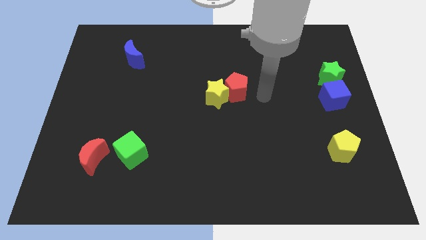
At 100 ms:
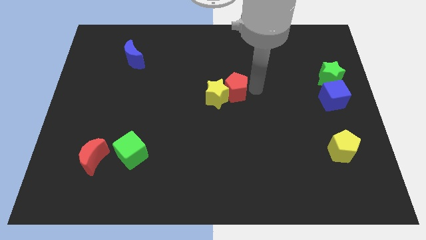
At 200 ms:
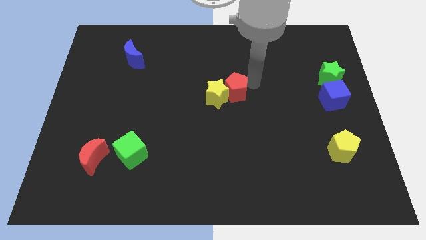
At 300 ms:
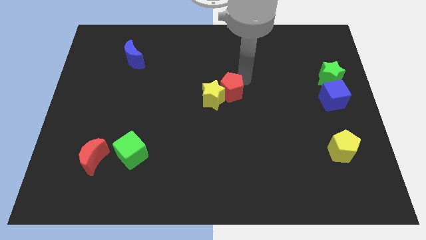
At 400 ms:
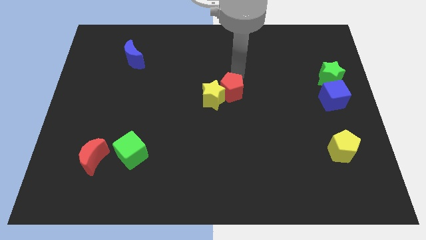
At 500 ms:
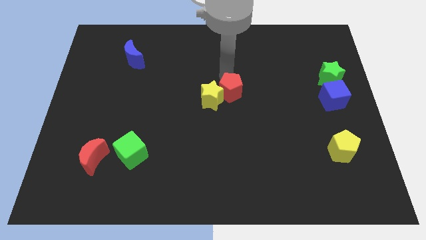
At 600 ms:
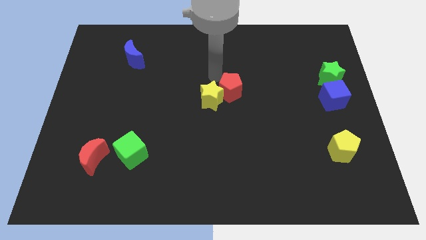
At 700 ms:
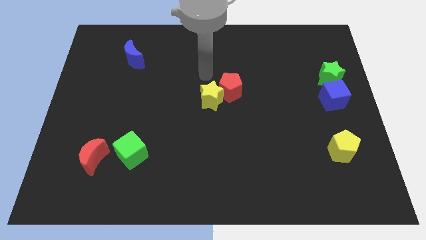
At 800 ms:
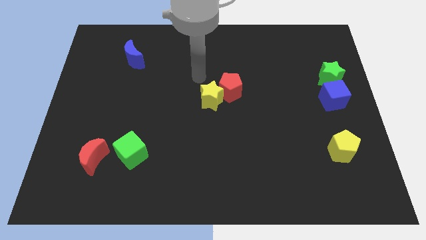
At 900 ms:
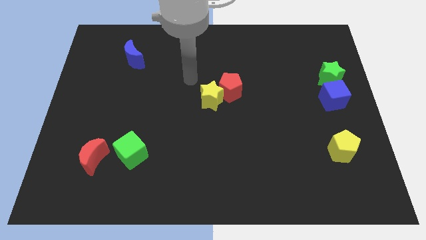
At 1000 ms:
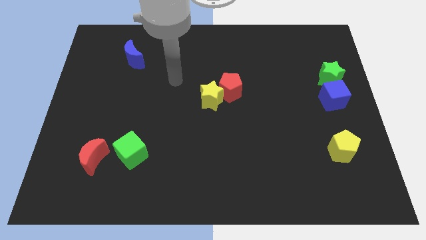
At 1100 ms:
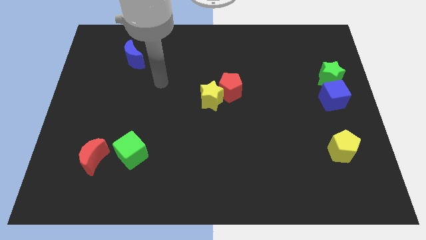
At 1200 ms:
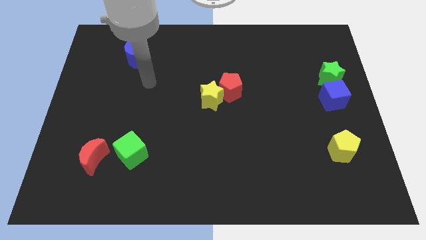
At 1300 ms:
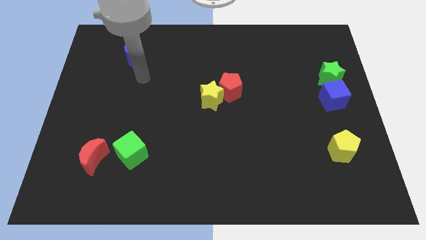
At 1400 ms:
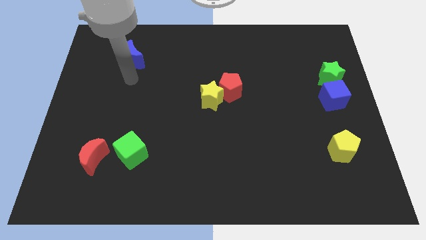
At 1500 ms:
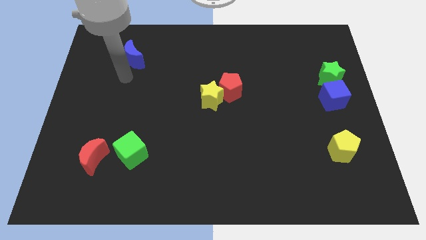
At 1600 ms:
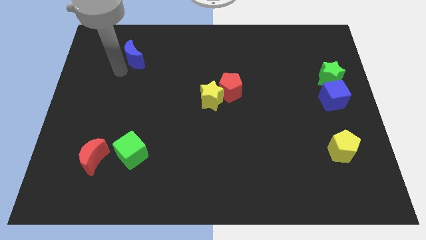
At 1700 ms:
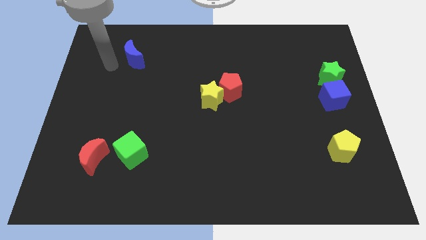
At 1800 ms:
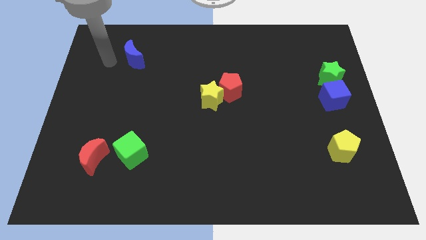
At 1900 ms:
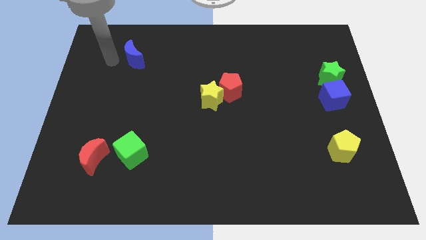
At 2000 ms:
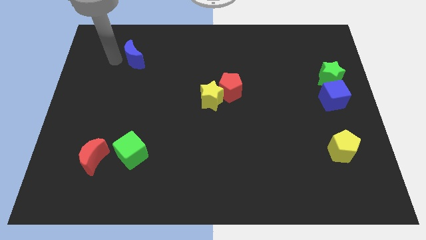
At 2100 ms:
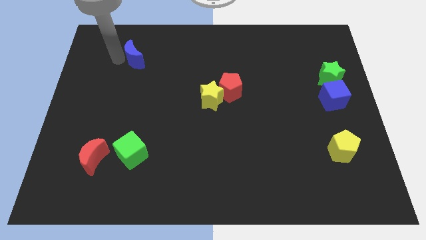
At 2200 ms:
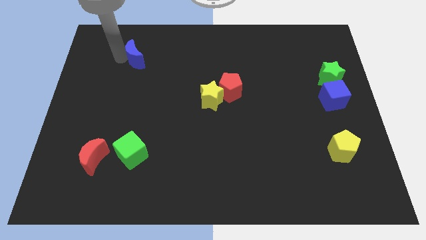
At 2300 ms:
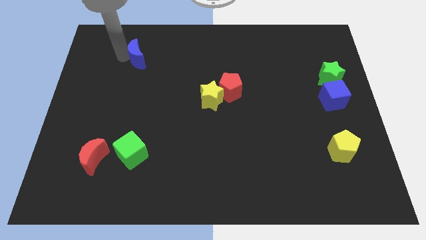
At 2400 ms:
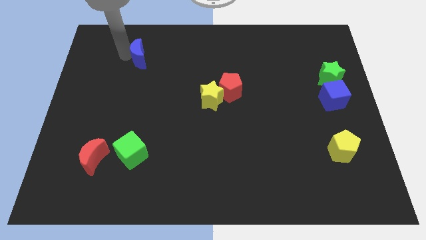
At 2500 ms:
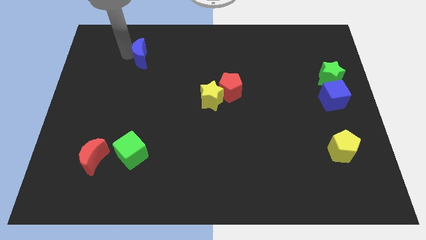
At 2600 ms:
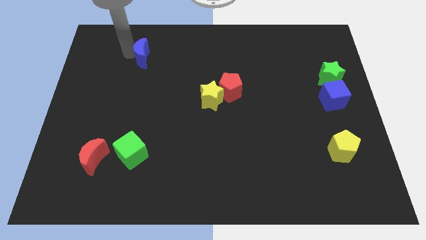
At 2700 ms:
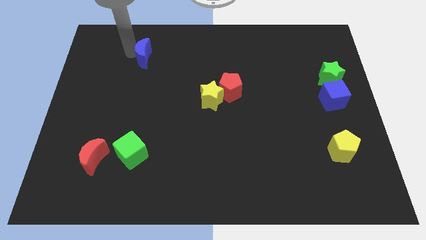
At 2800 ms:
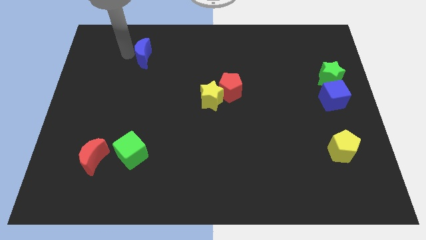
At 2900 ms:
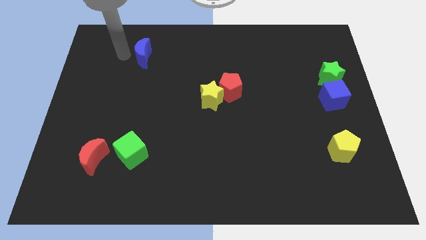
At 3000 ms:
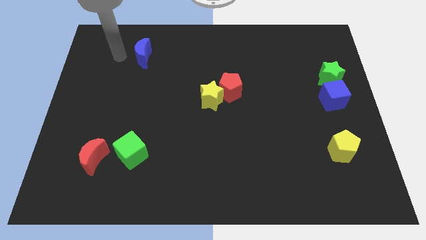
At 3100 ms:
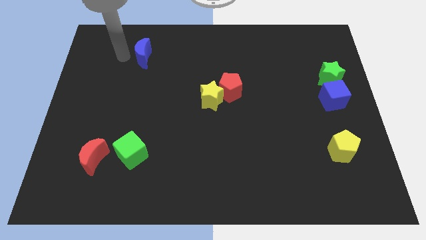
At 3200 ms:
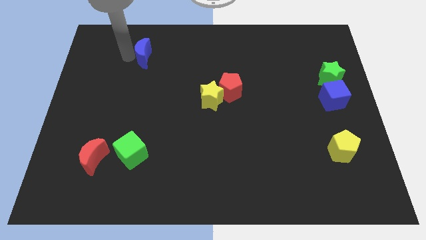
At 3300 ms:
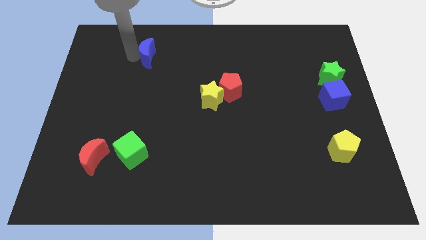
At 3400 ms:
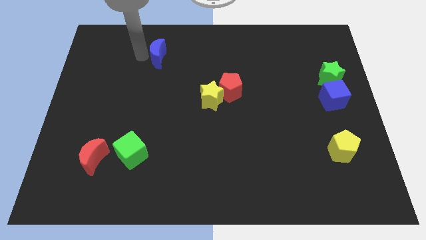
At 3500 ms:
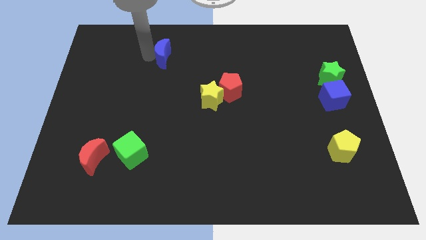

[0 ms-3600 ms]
slightly push the blue moon right

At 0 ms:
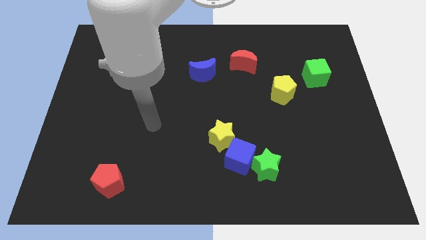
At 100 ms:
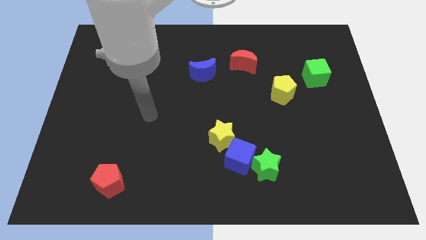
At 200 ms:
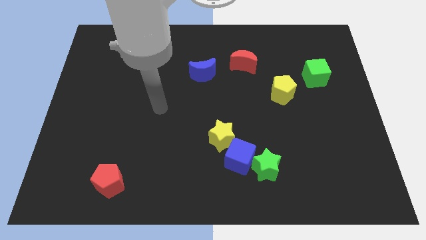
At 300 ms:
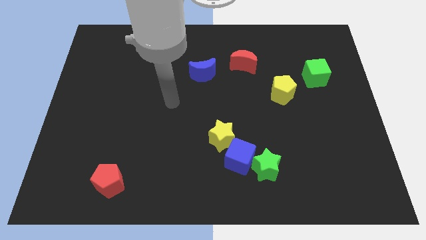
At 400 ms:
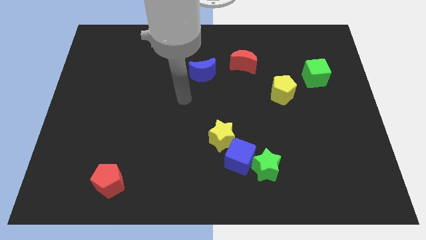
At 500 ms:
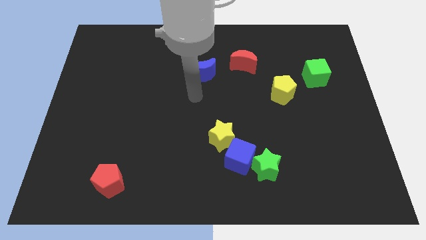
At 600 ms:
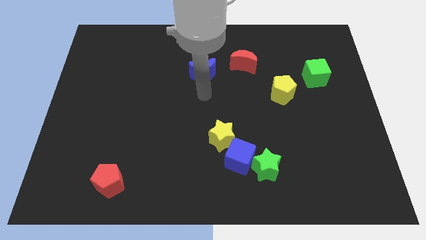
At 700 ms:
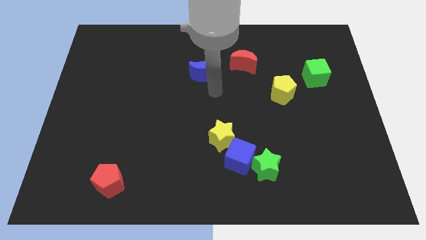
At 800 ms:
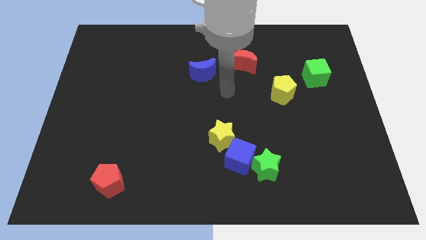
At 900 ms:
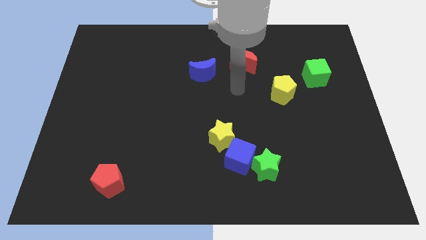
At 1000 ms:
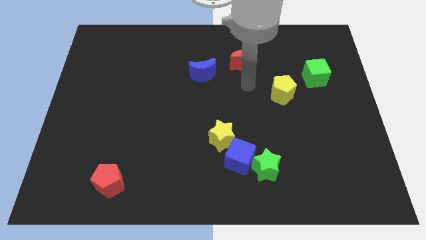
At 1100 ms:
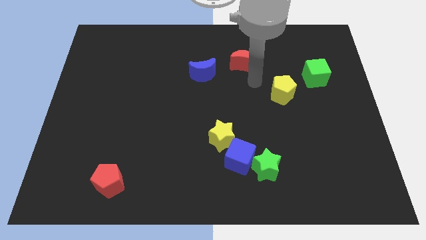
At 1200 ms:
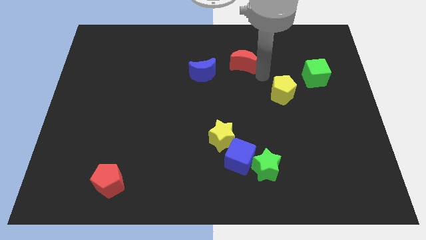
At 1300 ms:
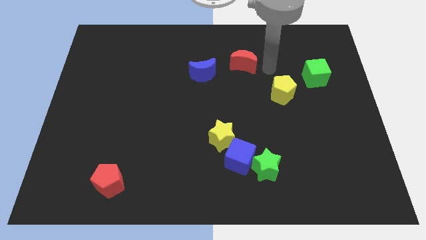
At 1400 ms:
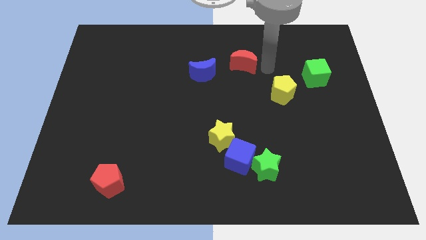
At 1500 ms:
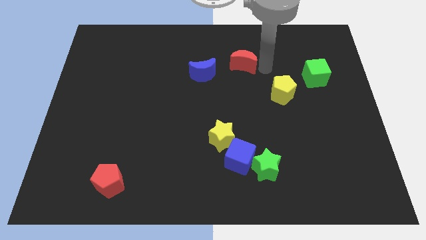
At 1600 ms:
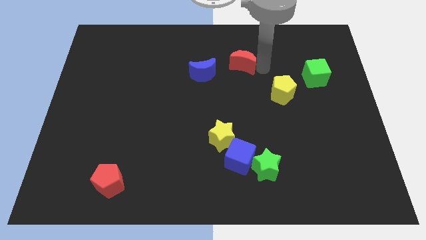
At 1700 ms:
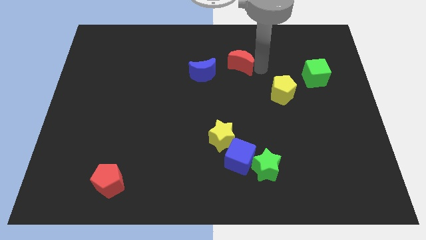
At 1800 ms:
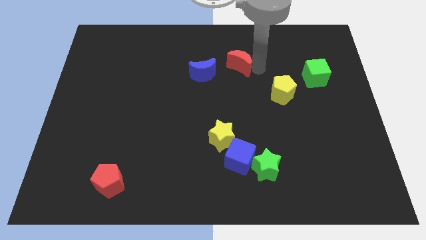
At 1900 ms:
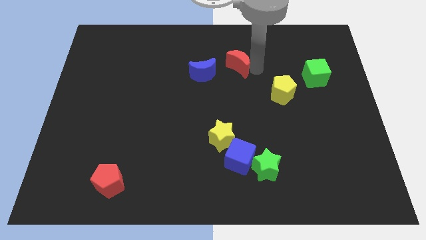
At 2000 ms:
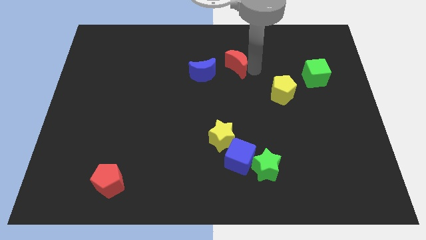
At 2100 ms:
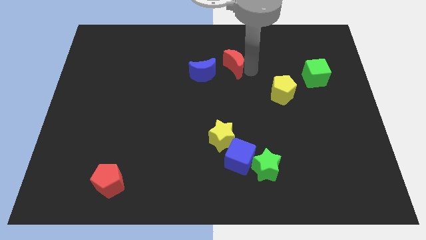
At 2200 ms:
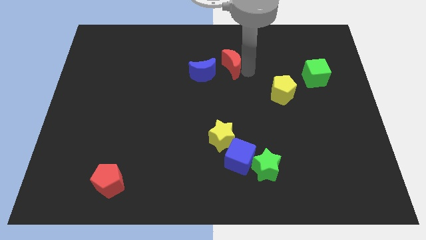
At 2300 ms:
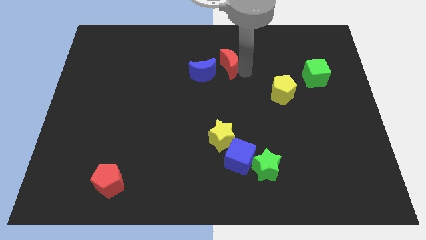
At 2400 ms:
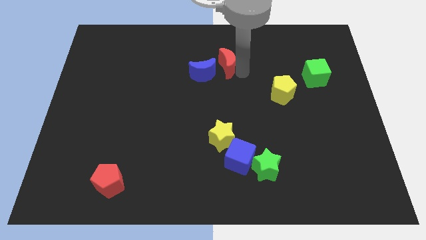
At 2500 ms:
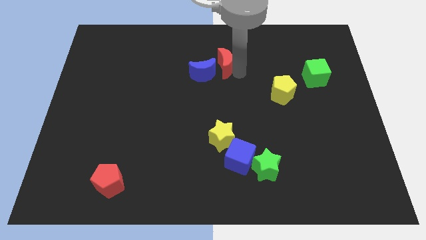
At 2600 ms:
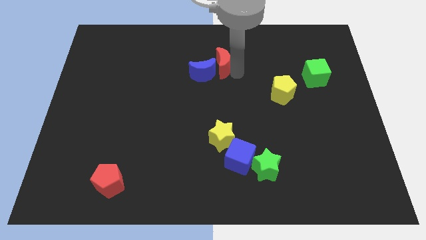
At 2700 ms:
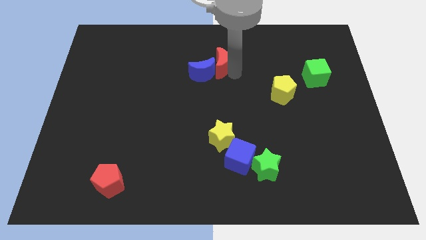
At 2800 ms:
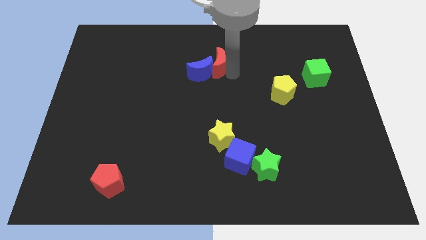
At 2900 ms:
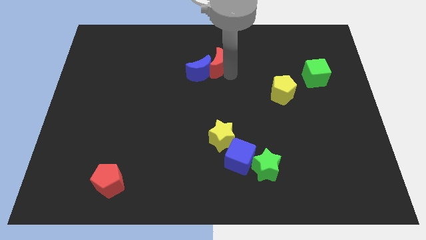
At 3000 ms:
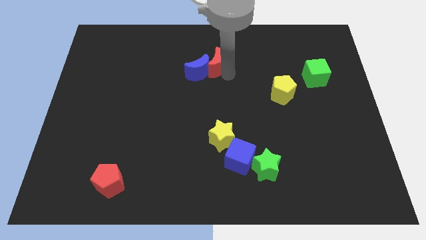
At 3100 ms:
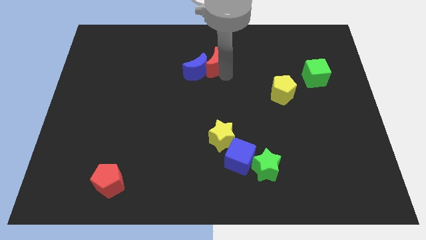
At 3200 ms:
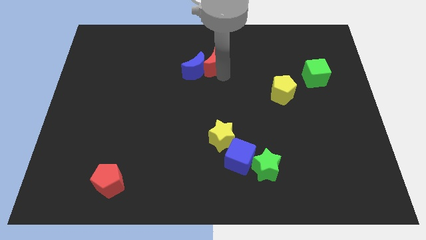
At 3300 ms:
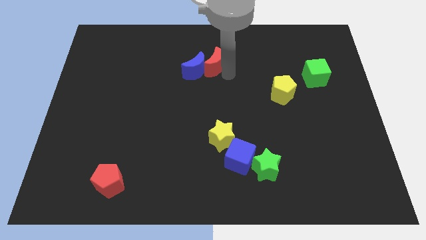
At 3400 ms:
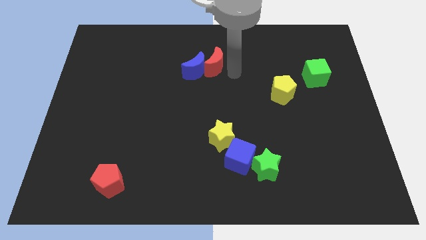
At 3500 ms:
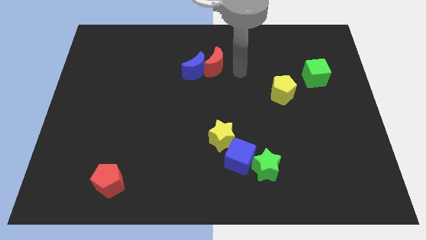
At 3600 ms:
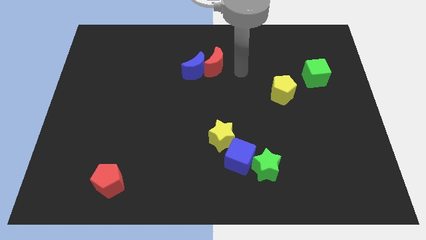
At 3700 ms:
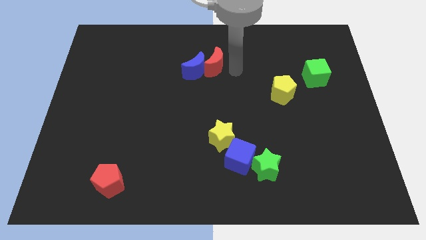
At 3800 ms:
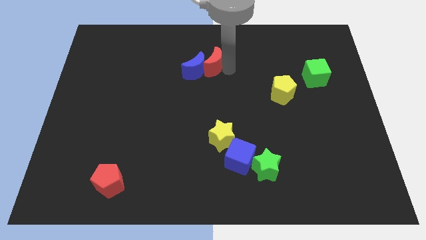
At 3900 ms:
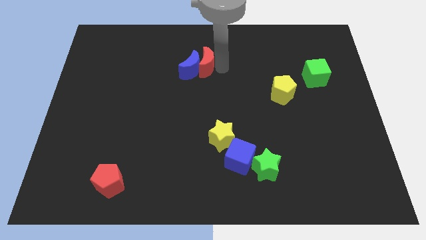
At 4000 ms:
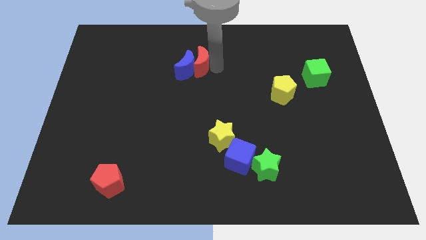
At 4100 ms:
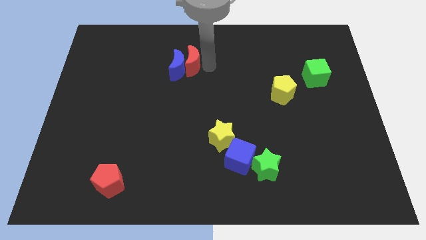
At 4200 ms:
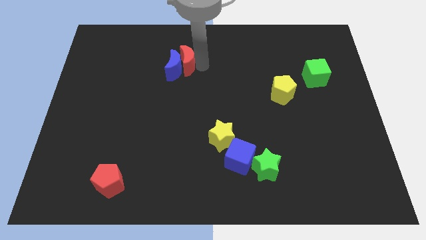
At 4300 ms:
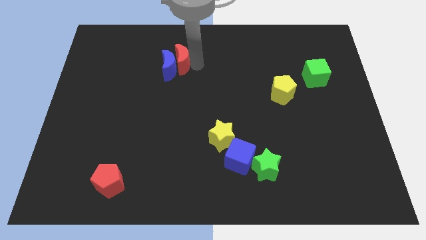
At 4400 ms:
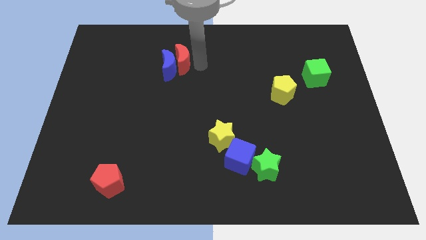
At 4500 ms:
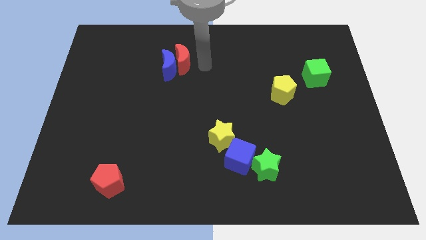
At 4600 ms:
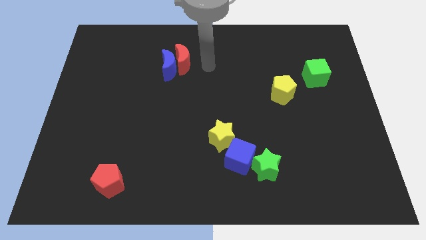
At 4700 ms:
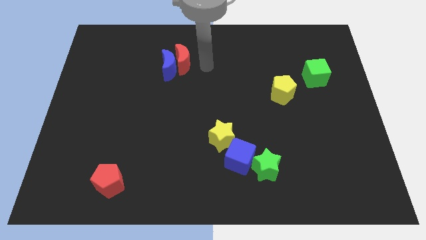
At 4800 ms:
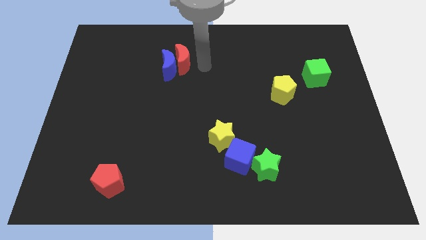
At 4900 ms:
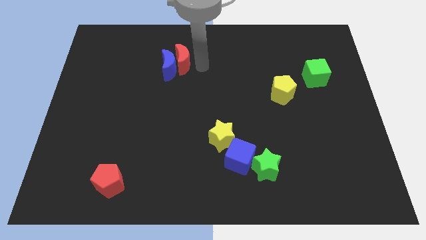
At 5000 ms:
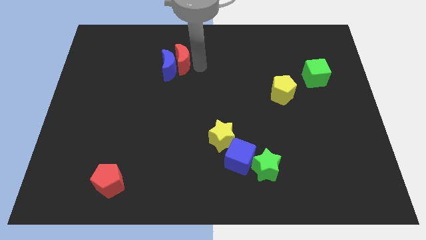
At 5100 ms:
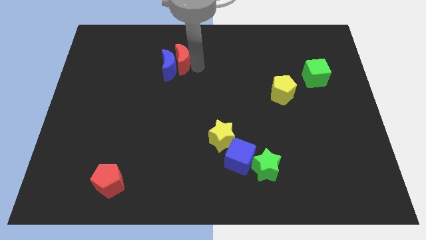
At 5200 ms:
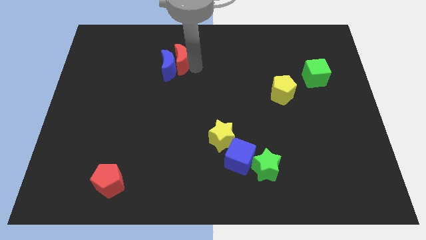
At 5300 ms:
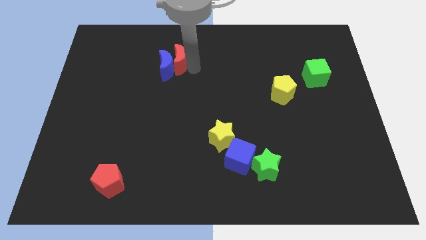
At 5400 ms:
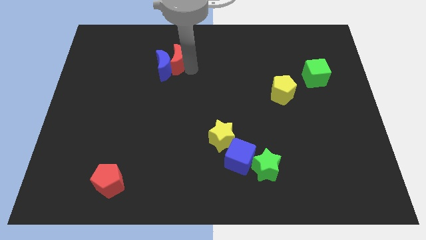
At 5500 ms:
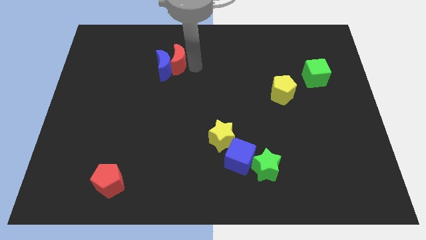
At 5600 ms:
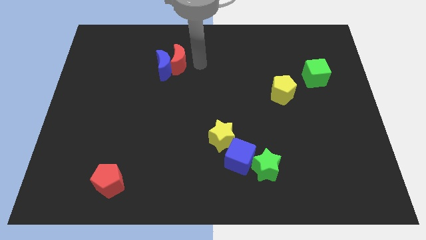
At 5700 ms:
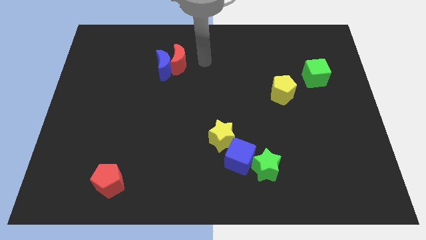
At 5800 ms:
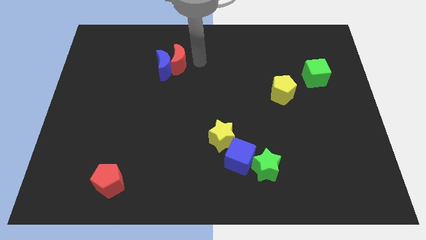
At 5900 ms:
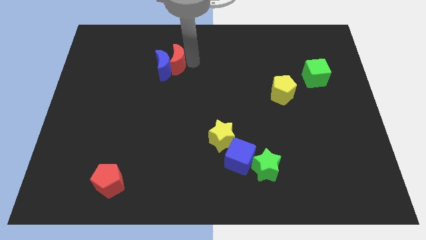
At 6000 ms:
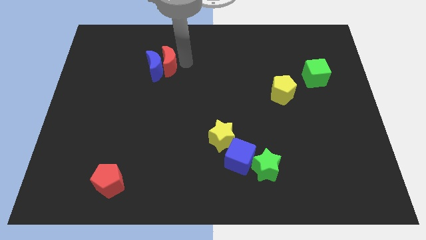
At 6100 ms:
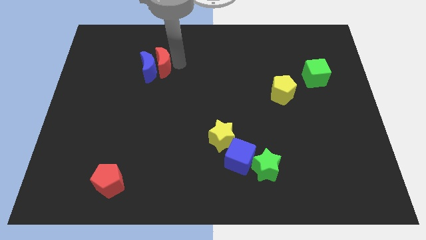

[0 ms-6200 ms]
push the red moon left
